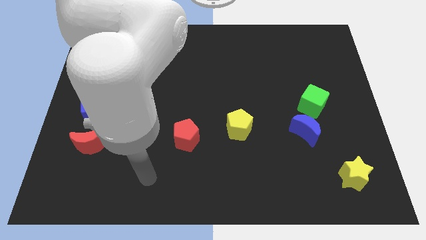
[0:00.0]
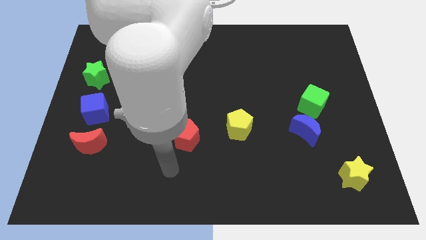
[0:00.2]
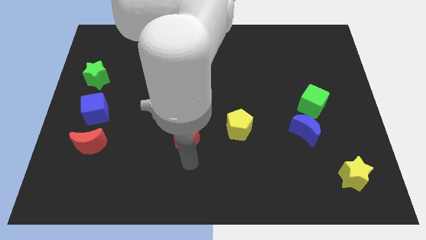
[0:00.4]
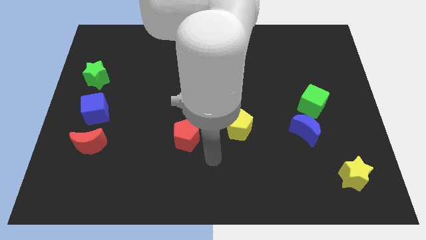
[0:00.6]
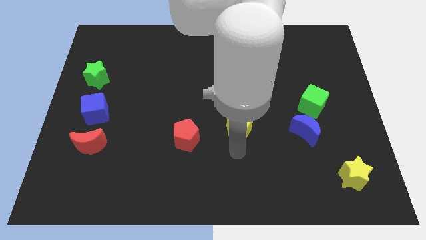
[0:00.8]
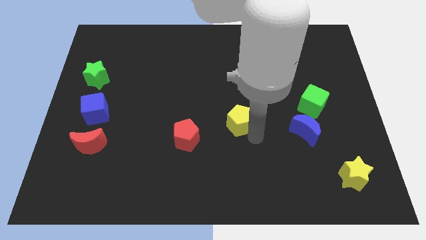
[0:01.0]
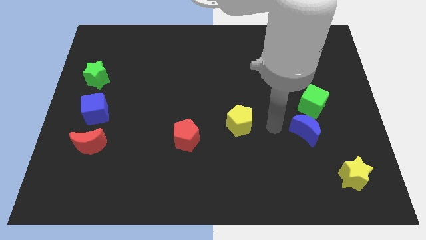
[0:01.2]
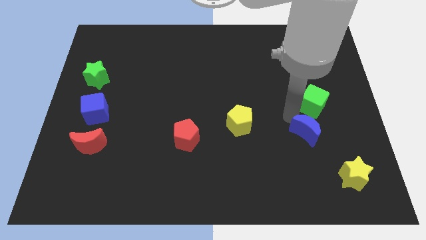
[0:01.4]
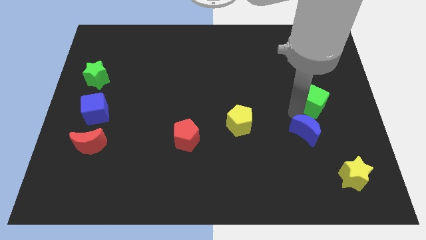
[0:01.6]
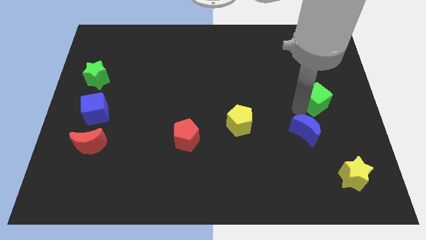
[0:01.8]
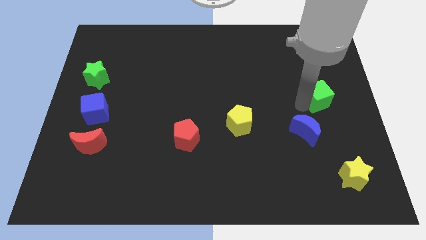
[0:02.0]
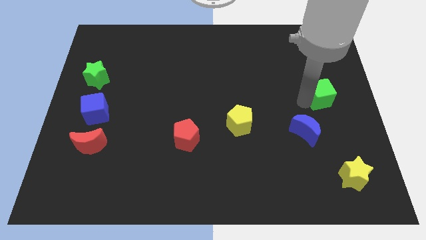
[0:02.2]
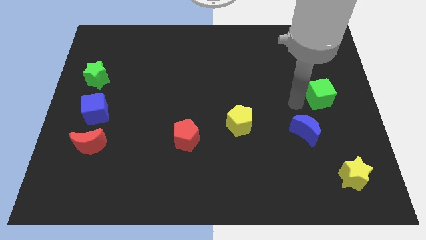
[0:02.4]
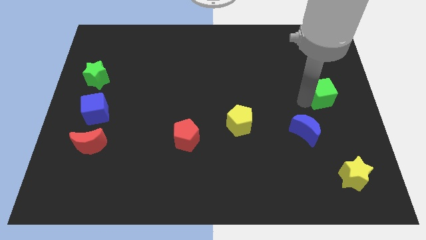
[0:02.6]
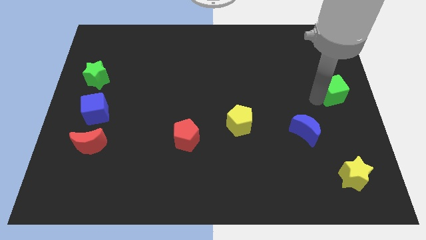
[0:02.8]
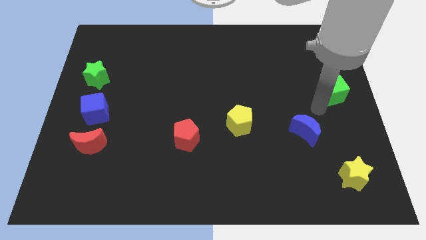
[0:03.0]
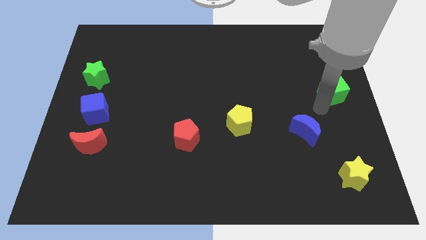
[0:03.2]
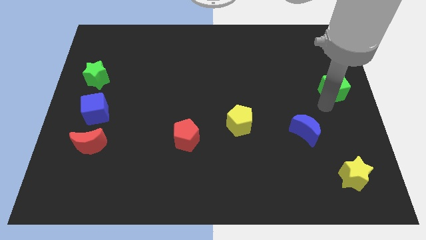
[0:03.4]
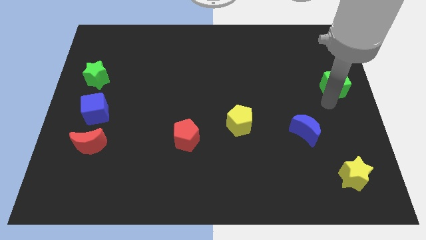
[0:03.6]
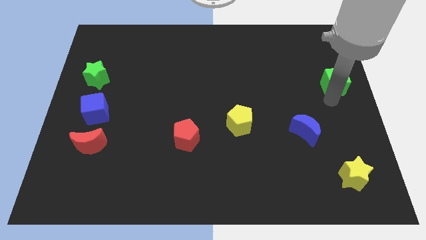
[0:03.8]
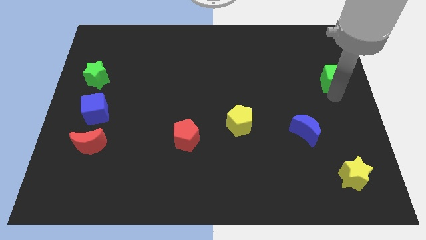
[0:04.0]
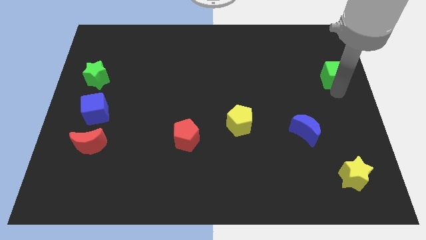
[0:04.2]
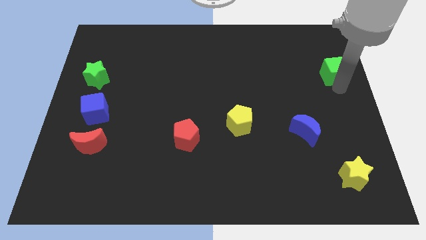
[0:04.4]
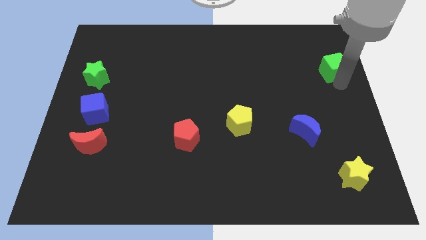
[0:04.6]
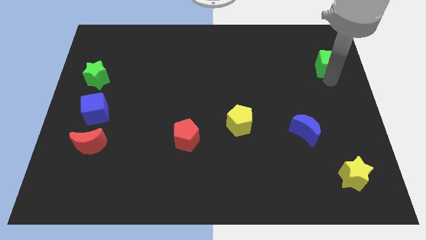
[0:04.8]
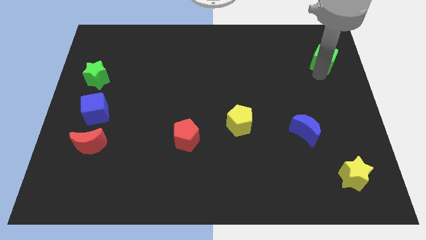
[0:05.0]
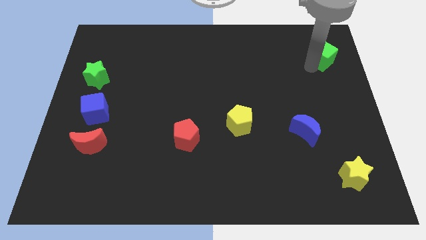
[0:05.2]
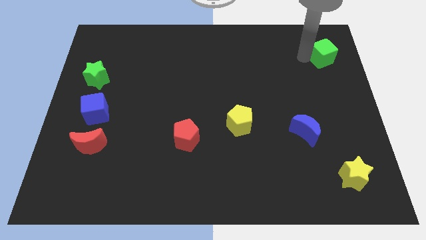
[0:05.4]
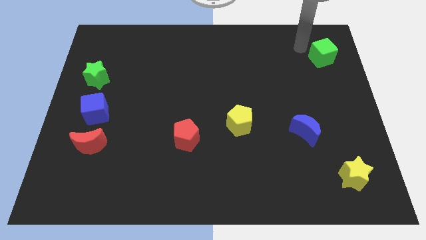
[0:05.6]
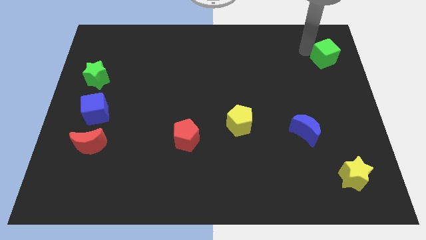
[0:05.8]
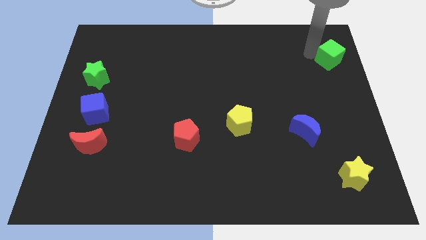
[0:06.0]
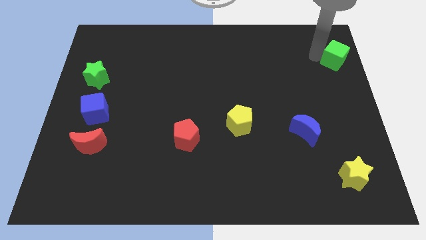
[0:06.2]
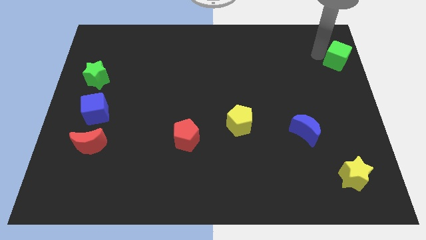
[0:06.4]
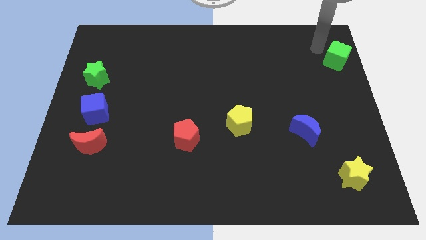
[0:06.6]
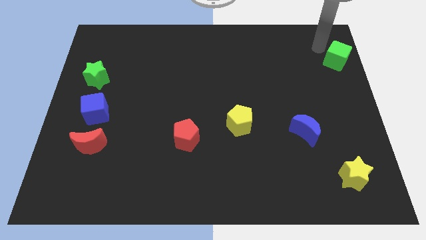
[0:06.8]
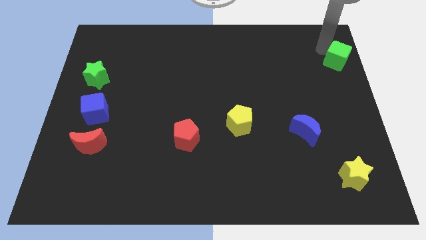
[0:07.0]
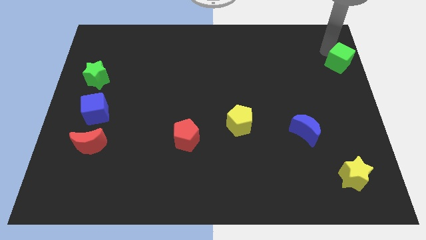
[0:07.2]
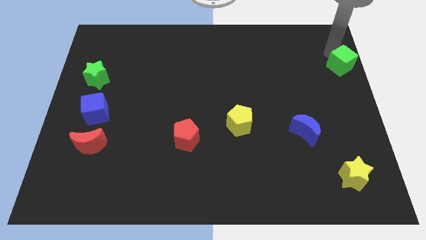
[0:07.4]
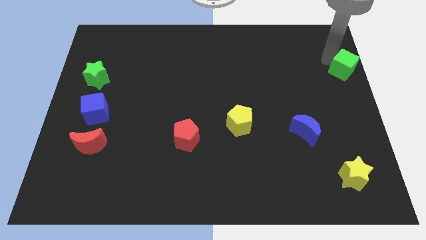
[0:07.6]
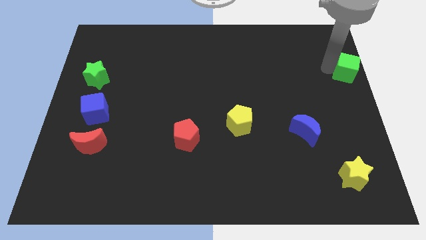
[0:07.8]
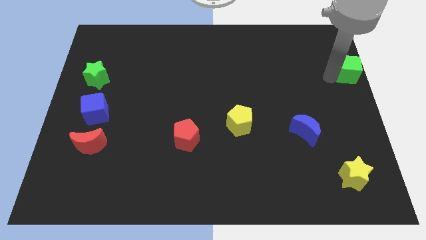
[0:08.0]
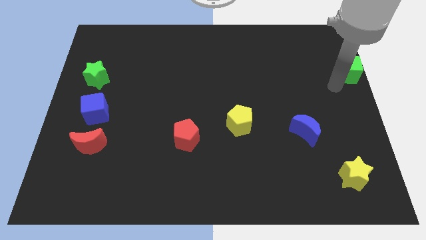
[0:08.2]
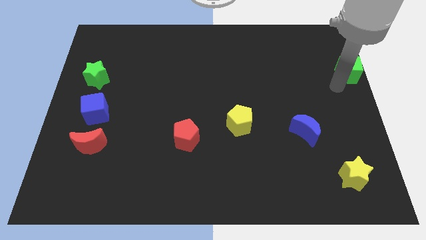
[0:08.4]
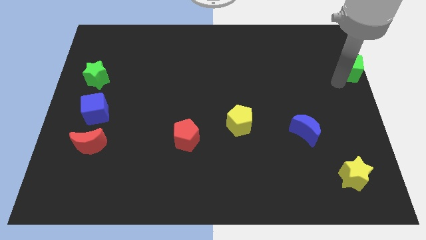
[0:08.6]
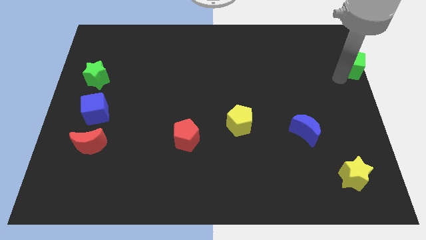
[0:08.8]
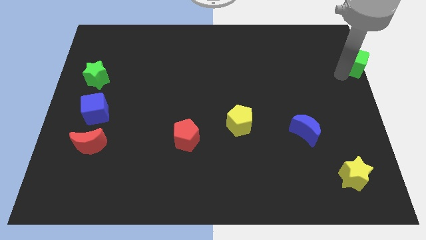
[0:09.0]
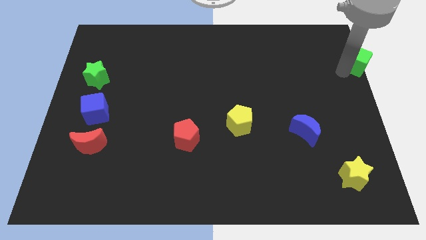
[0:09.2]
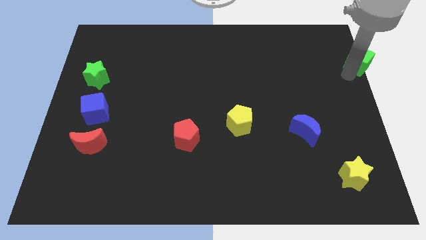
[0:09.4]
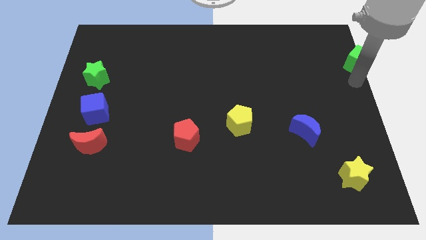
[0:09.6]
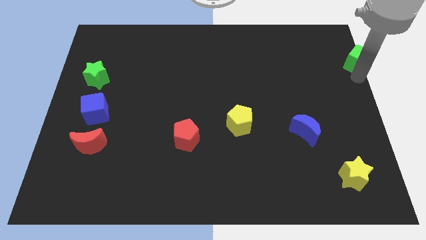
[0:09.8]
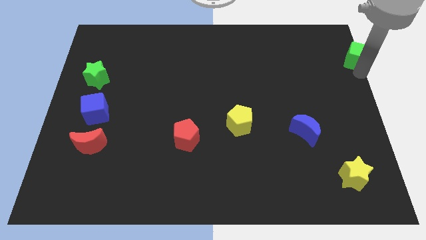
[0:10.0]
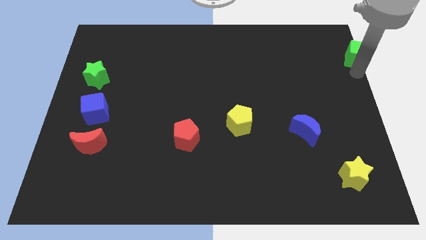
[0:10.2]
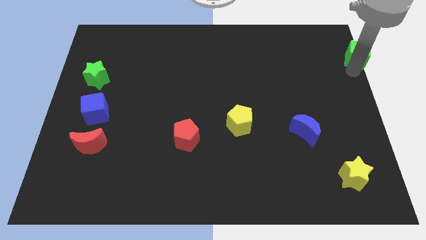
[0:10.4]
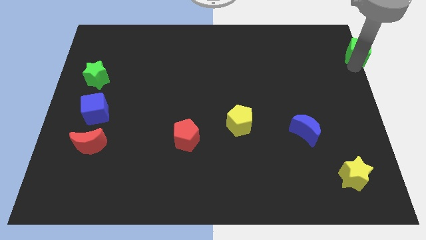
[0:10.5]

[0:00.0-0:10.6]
move the green cube to the top right corner
